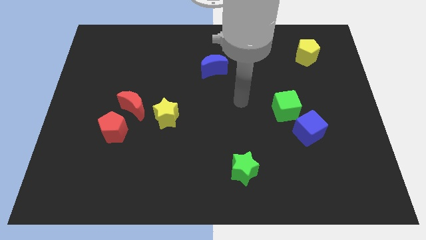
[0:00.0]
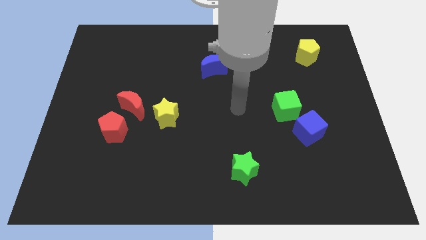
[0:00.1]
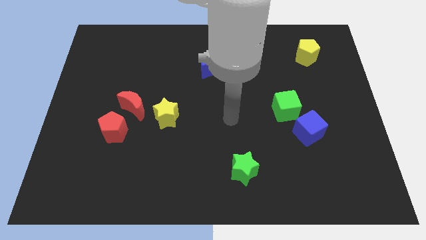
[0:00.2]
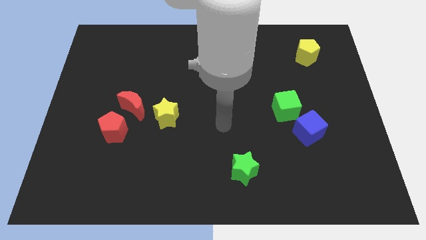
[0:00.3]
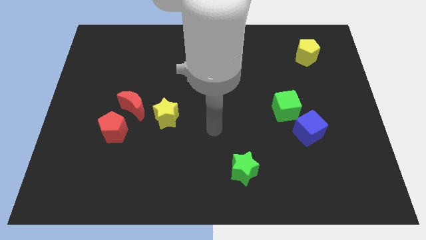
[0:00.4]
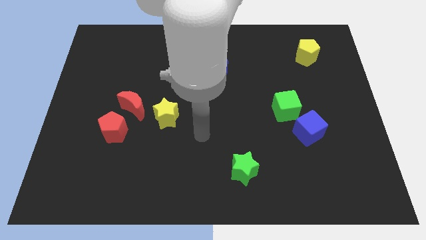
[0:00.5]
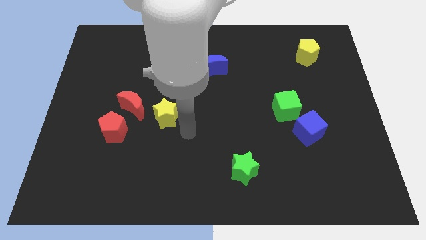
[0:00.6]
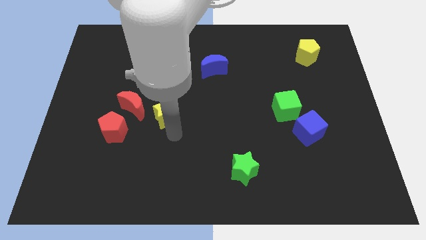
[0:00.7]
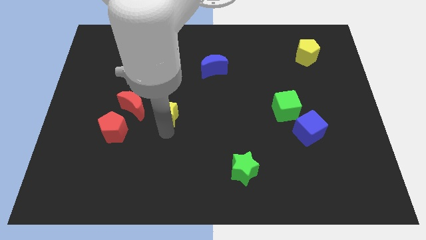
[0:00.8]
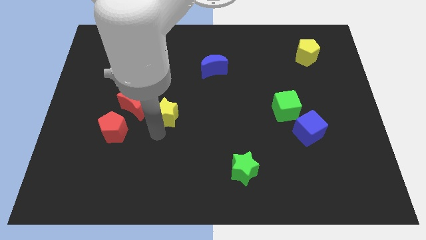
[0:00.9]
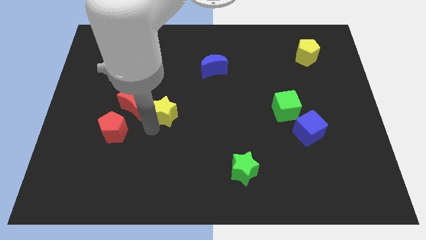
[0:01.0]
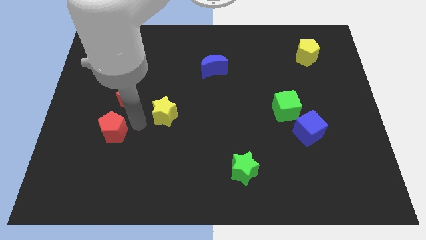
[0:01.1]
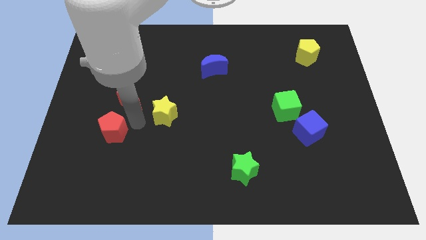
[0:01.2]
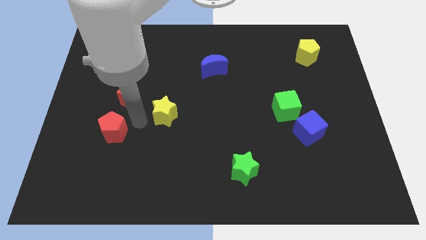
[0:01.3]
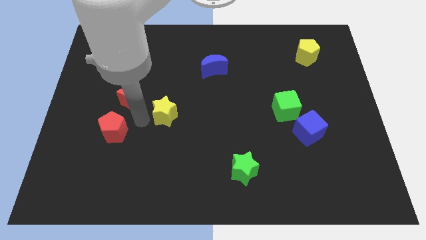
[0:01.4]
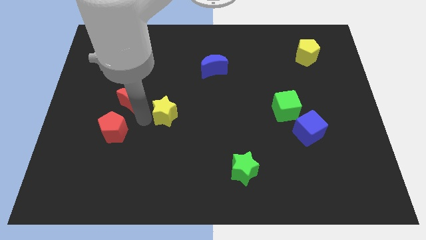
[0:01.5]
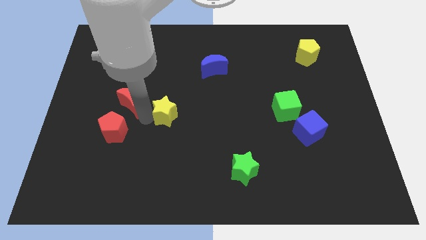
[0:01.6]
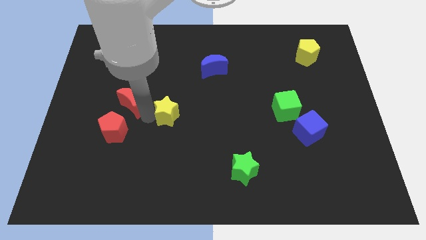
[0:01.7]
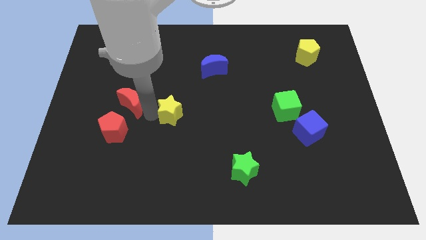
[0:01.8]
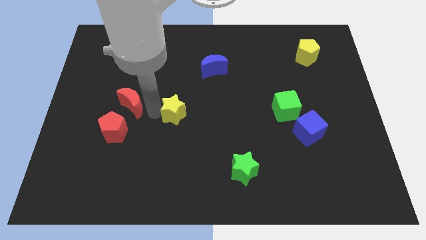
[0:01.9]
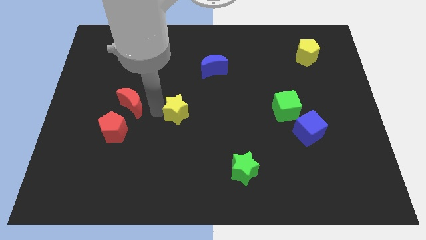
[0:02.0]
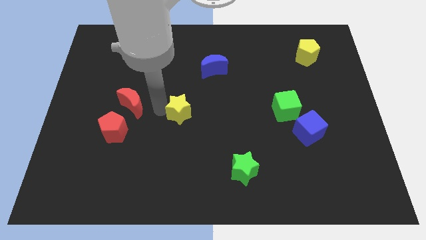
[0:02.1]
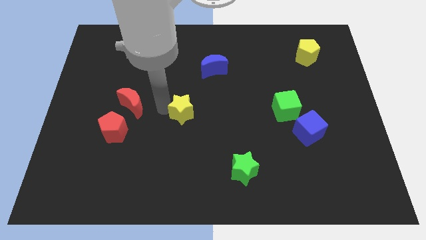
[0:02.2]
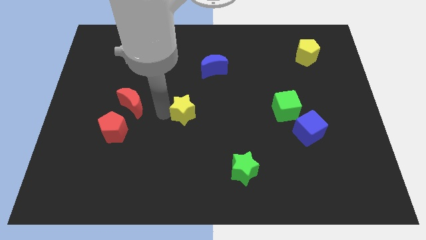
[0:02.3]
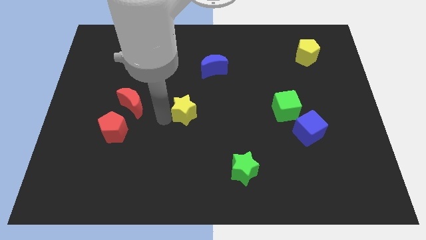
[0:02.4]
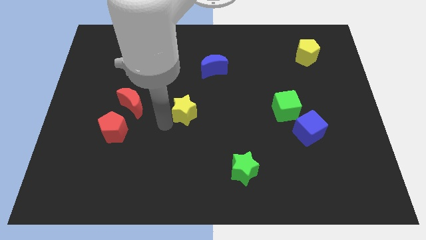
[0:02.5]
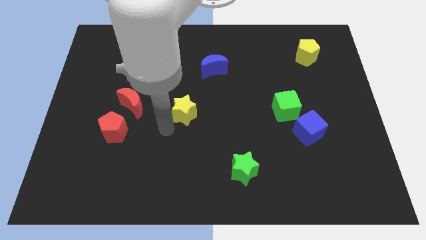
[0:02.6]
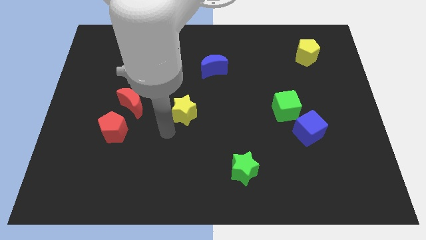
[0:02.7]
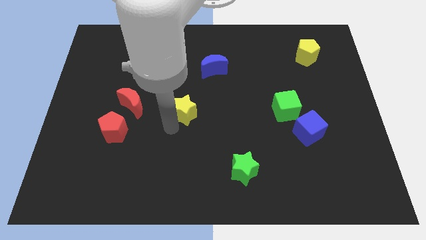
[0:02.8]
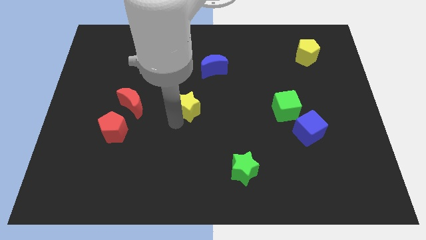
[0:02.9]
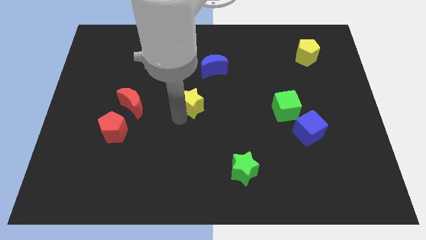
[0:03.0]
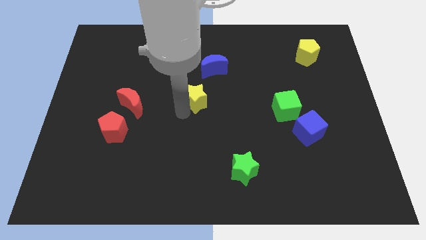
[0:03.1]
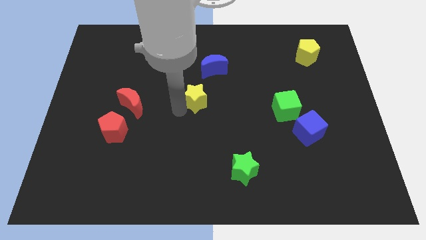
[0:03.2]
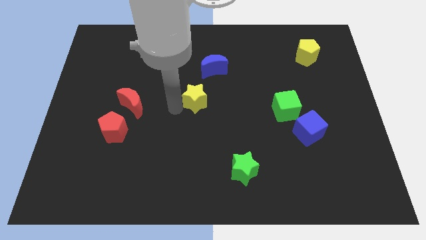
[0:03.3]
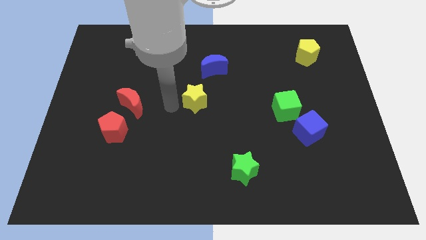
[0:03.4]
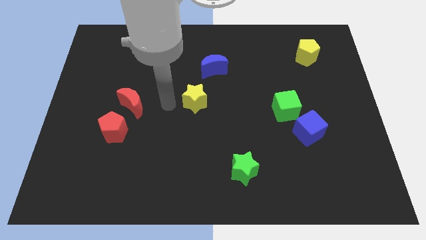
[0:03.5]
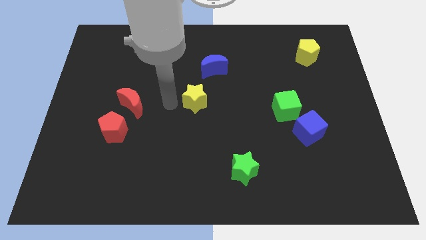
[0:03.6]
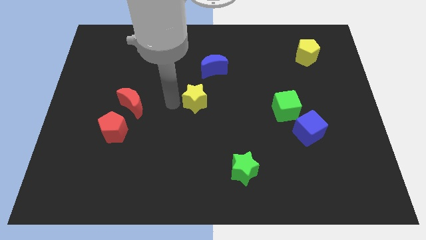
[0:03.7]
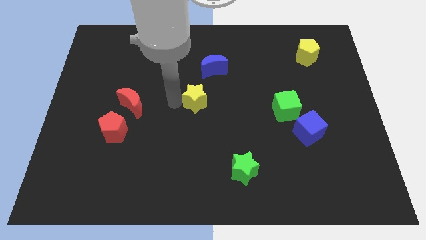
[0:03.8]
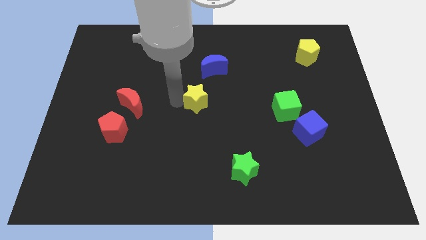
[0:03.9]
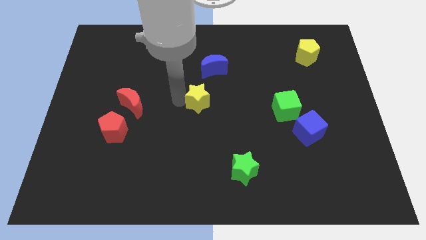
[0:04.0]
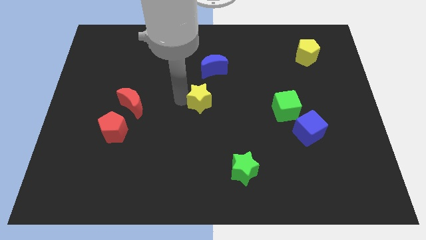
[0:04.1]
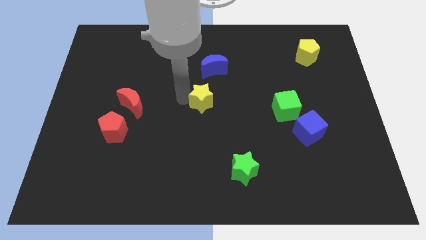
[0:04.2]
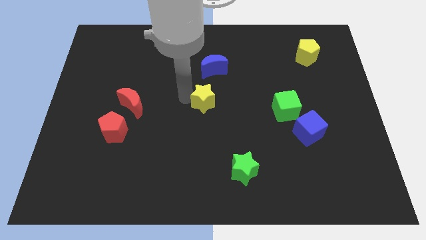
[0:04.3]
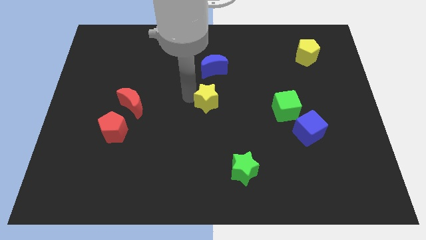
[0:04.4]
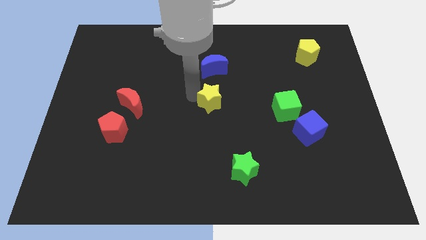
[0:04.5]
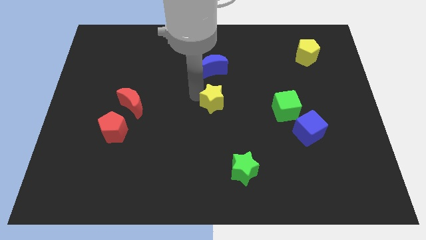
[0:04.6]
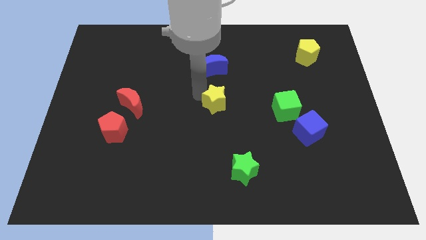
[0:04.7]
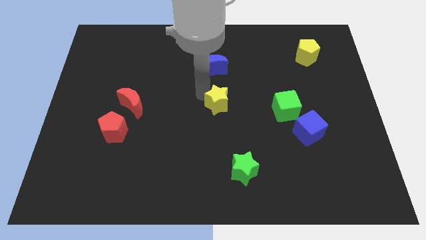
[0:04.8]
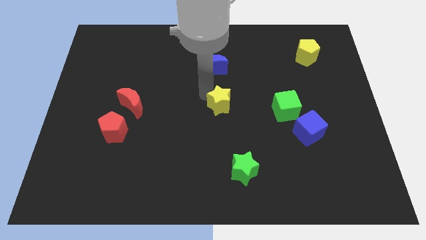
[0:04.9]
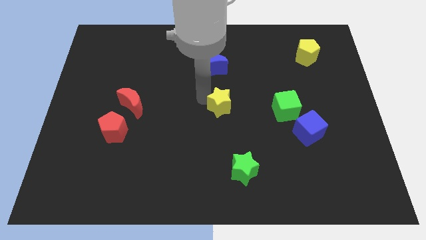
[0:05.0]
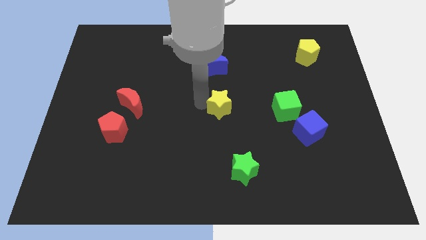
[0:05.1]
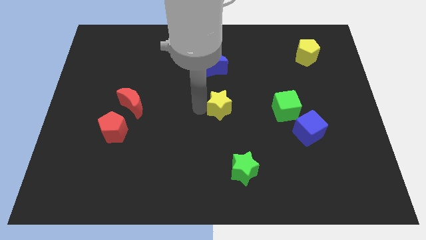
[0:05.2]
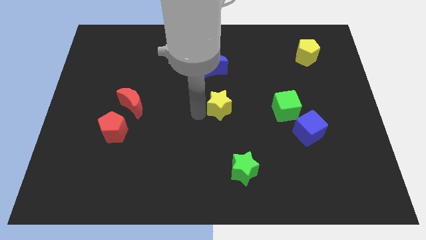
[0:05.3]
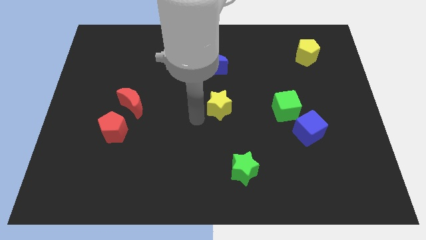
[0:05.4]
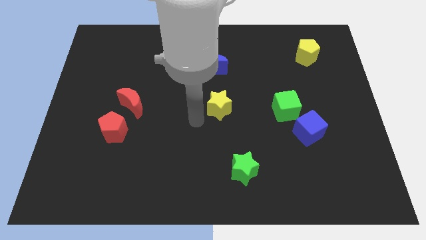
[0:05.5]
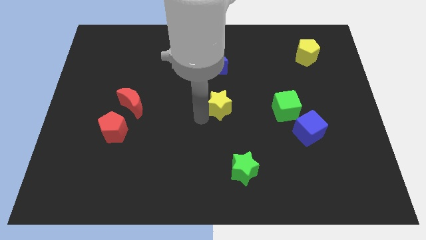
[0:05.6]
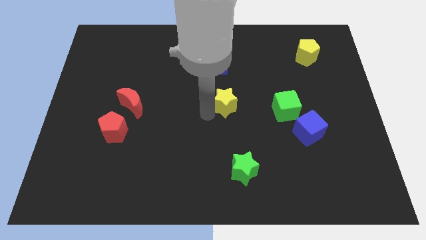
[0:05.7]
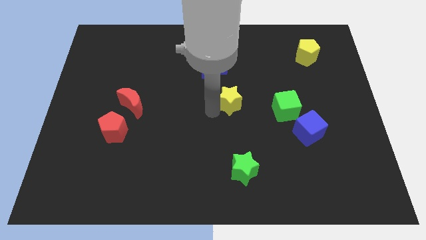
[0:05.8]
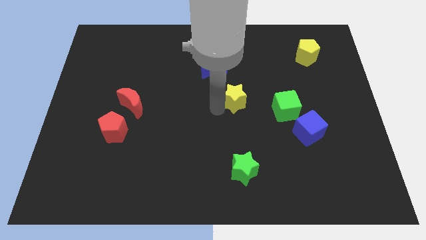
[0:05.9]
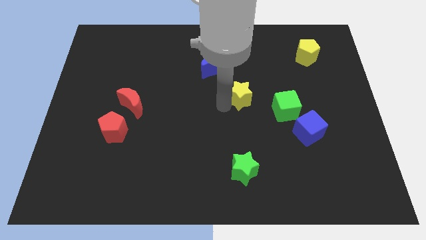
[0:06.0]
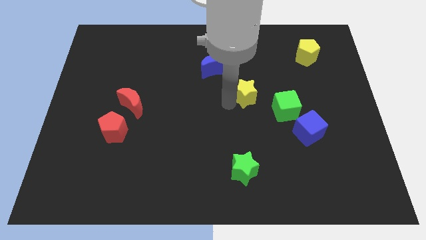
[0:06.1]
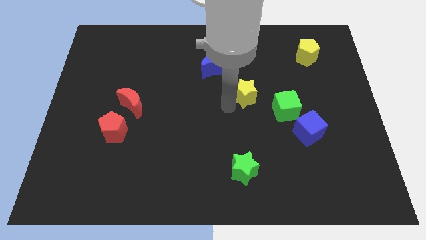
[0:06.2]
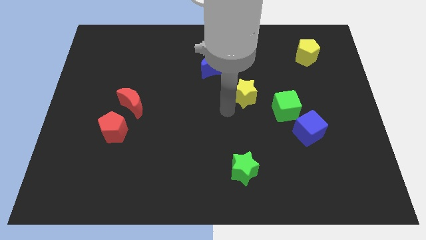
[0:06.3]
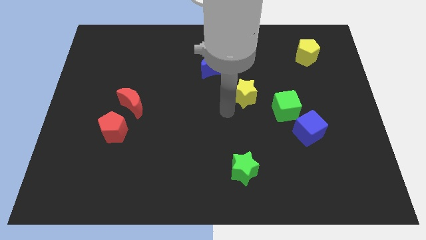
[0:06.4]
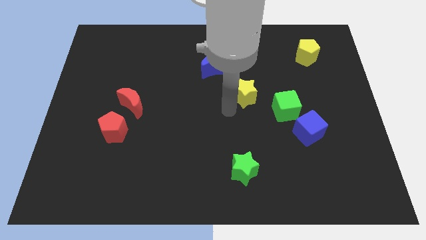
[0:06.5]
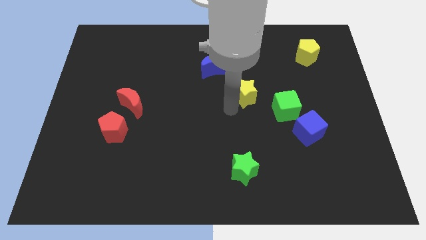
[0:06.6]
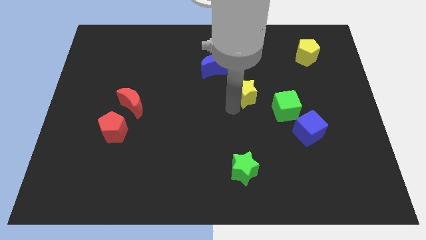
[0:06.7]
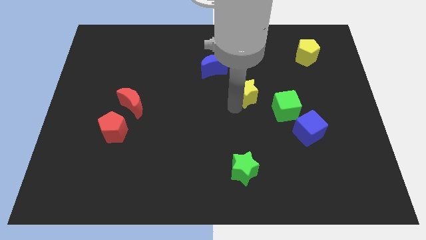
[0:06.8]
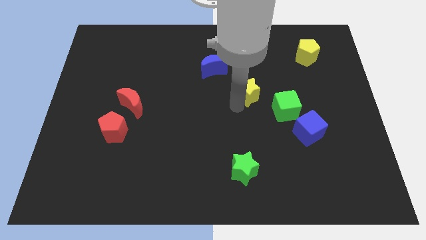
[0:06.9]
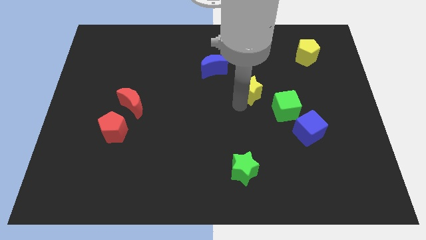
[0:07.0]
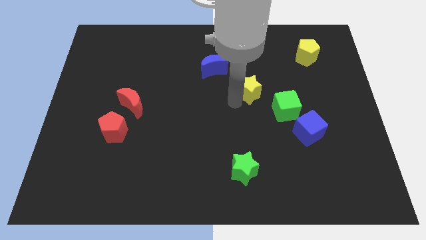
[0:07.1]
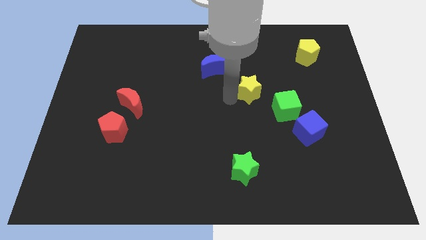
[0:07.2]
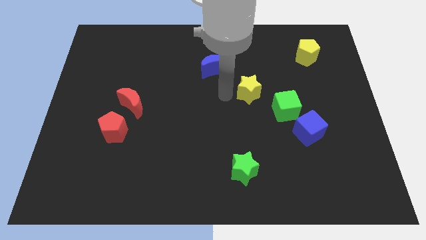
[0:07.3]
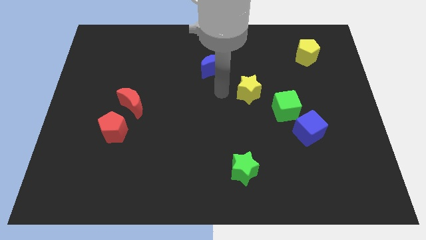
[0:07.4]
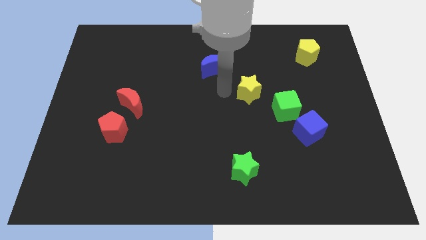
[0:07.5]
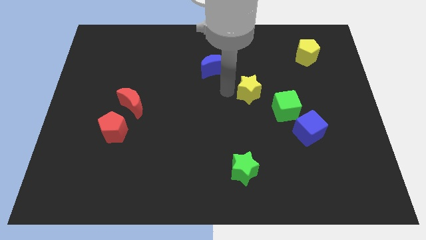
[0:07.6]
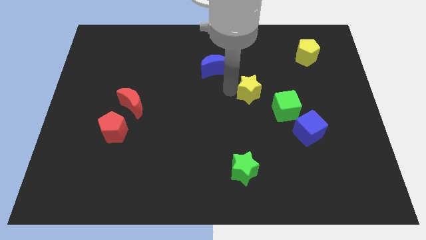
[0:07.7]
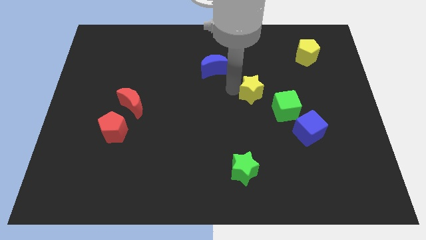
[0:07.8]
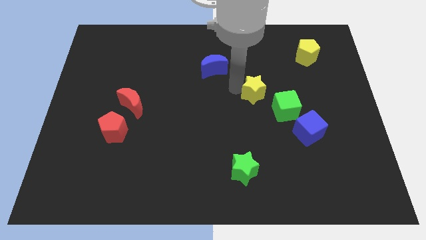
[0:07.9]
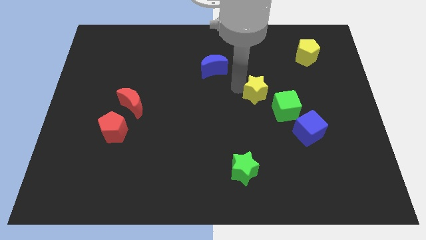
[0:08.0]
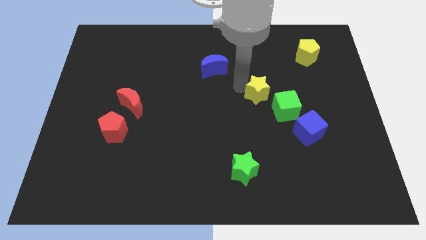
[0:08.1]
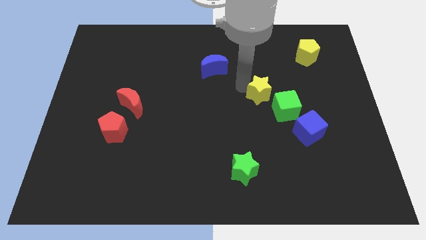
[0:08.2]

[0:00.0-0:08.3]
slide the yellow star right
